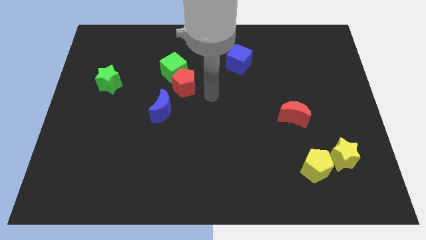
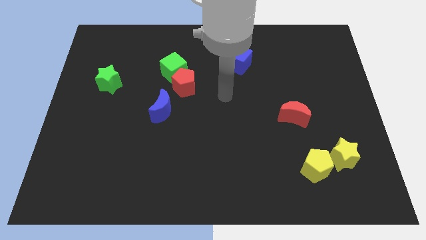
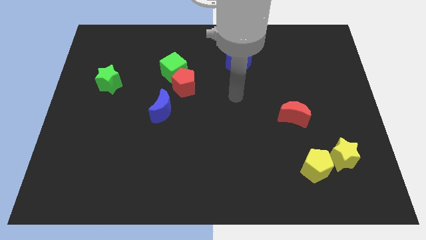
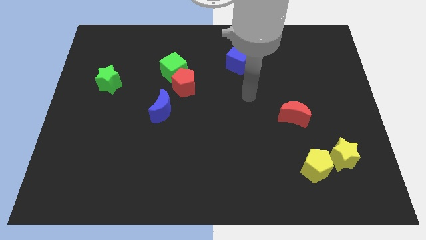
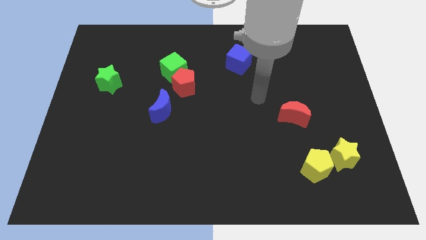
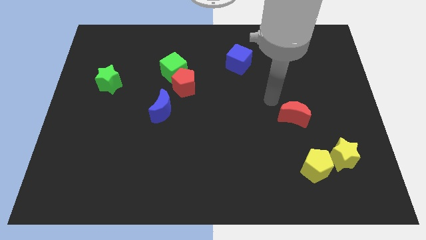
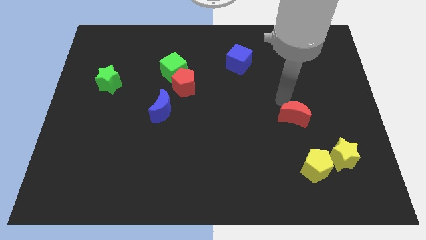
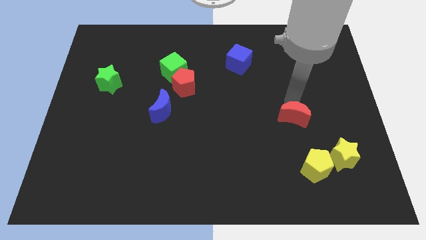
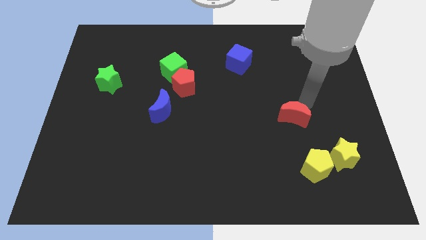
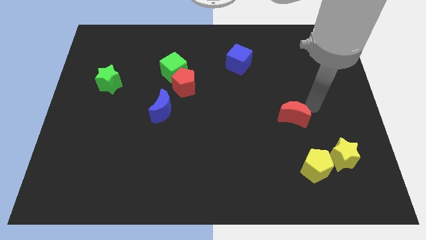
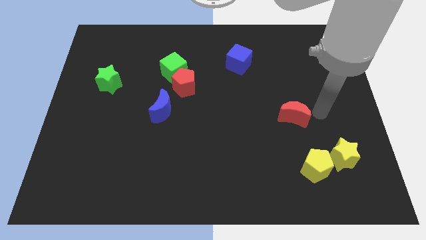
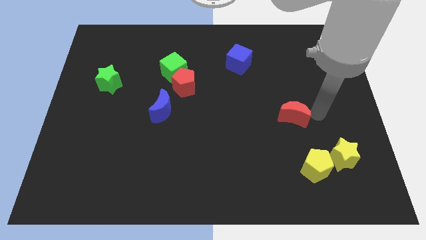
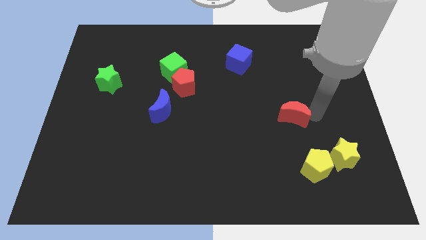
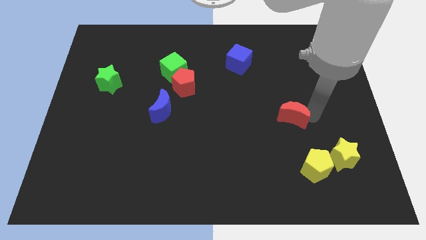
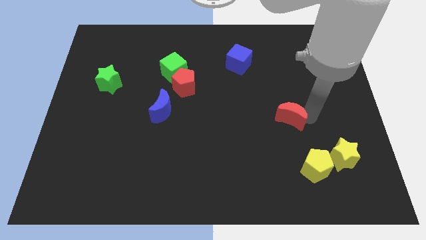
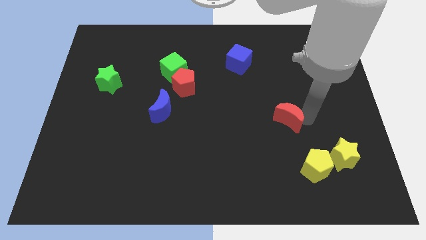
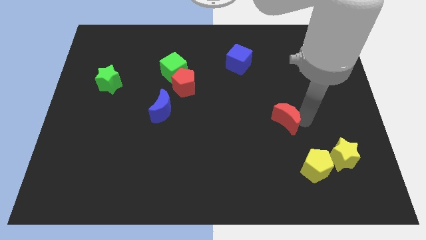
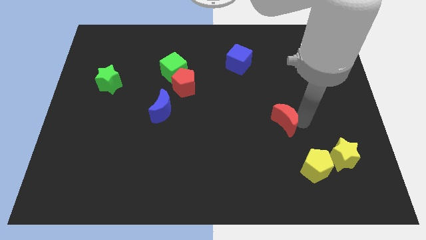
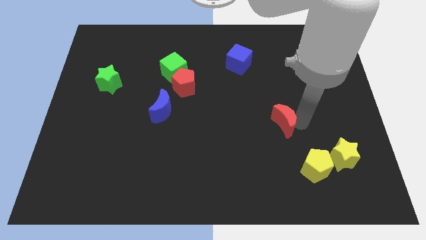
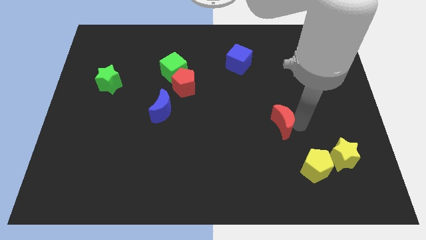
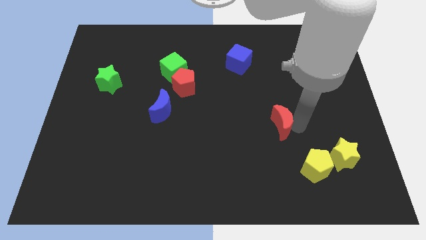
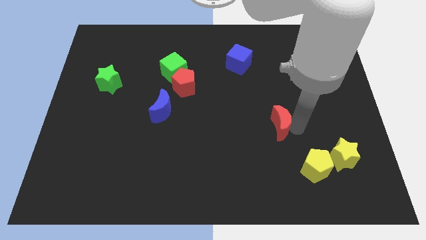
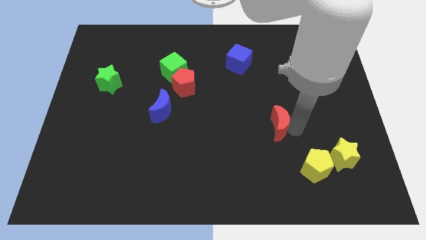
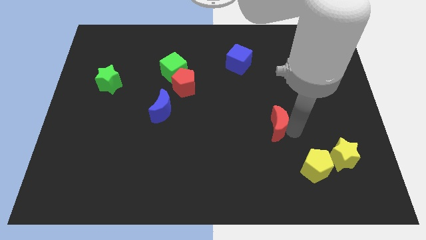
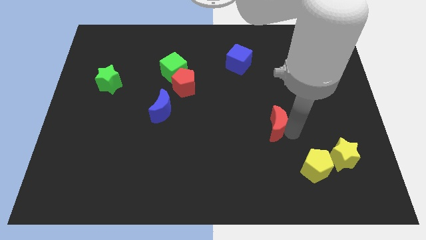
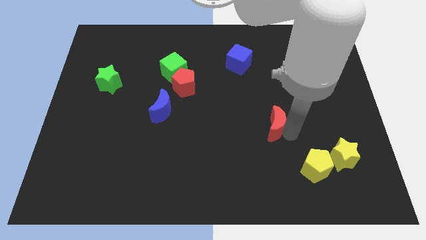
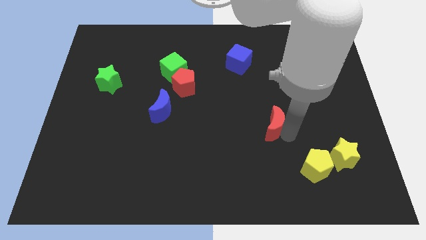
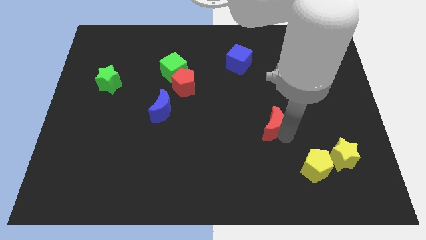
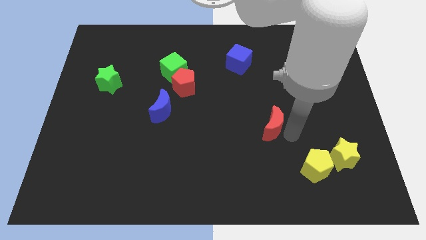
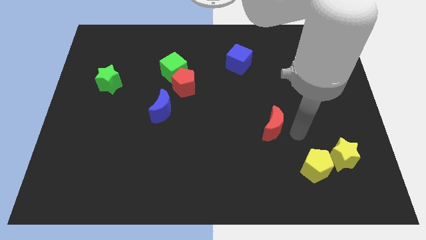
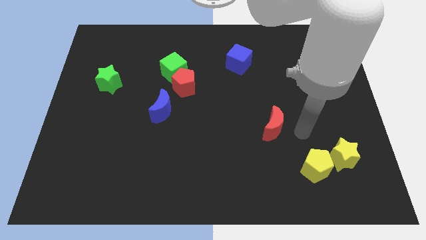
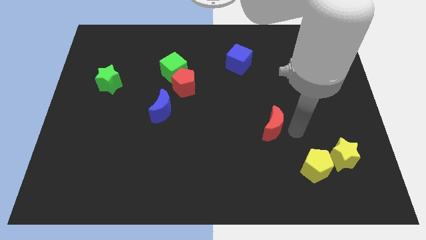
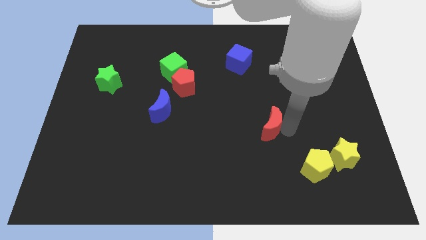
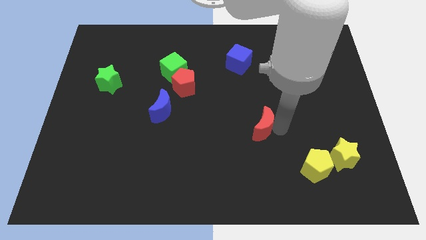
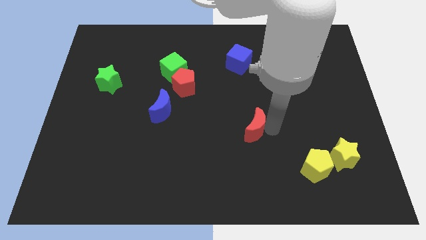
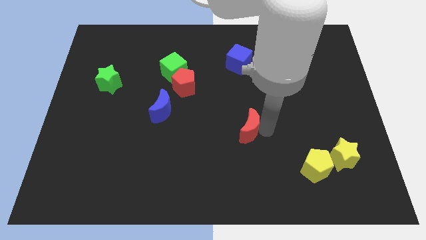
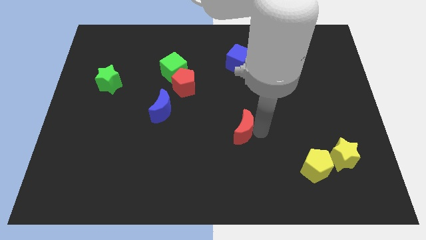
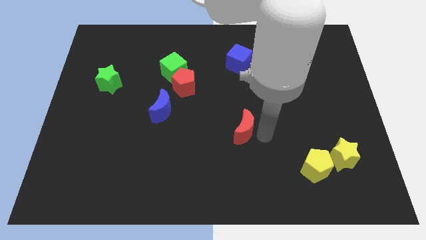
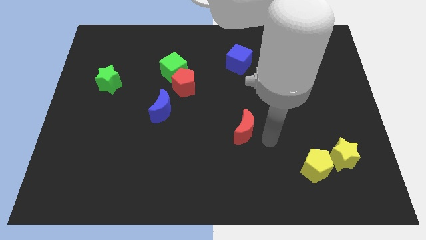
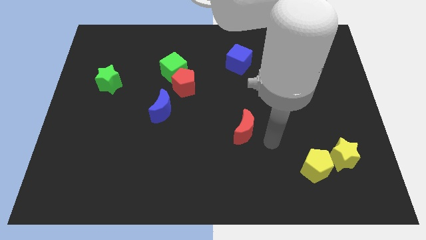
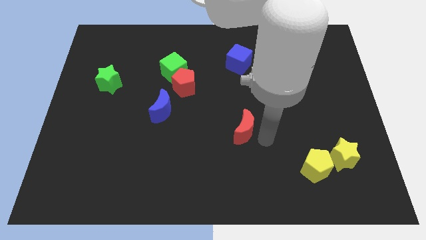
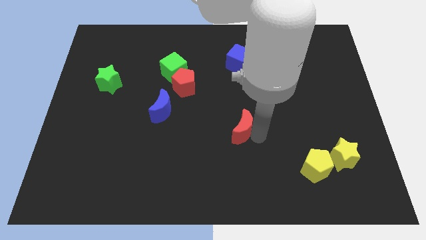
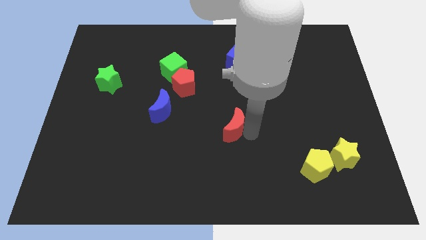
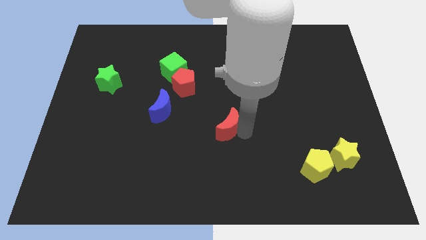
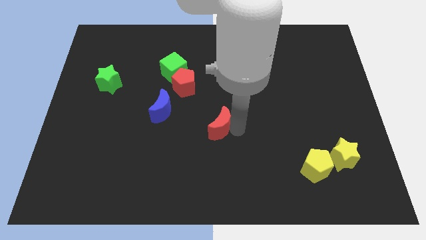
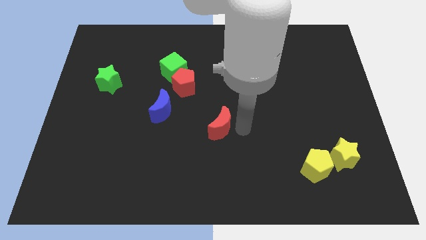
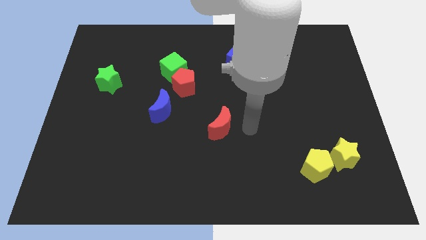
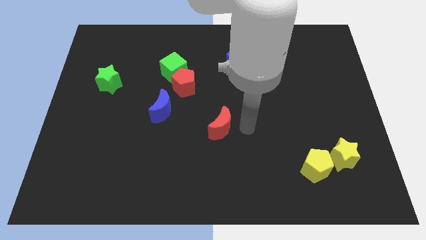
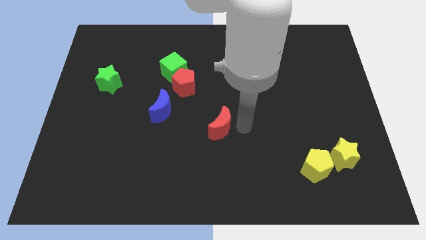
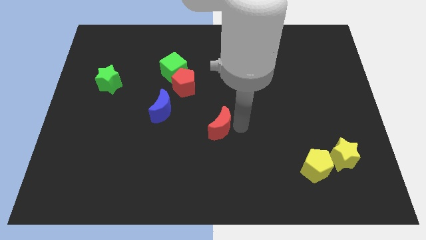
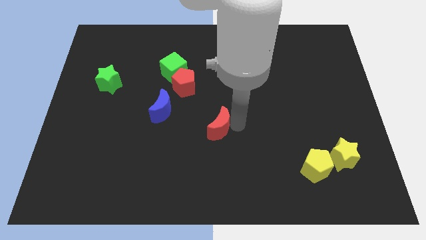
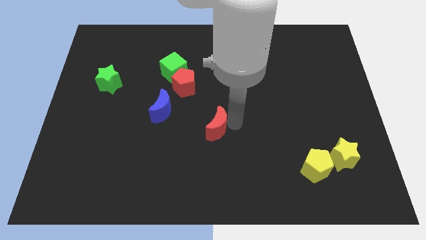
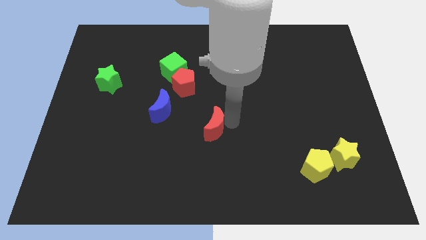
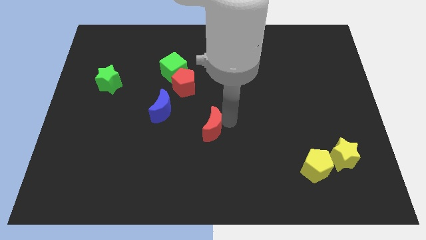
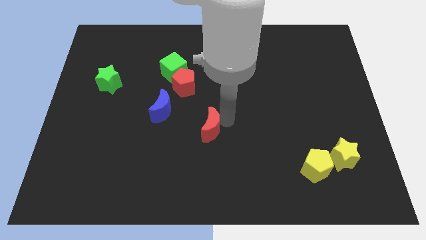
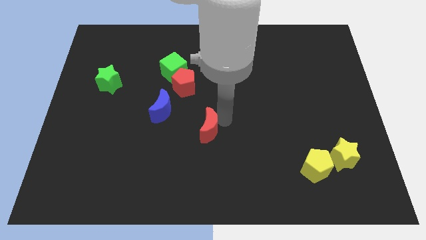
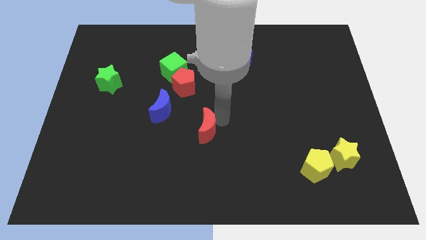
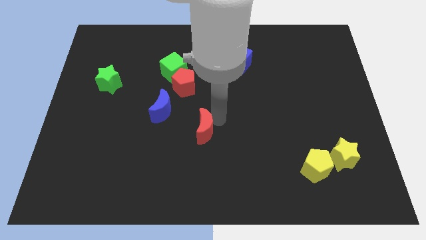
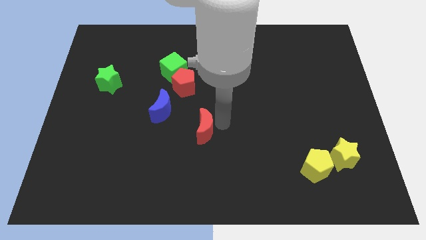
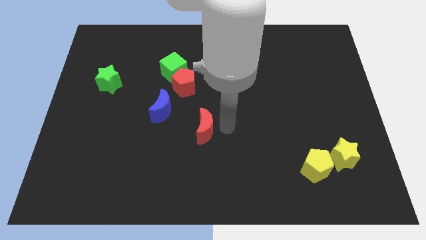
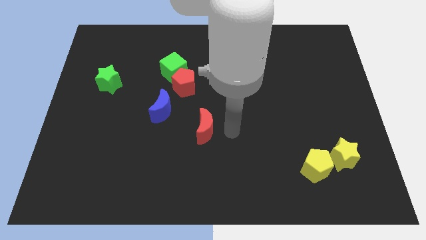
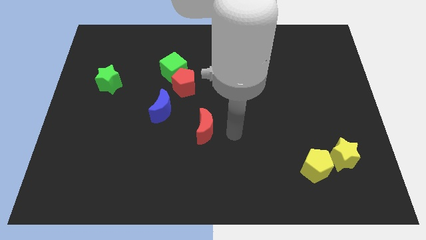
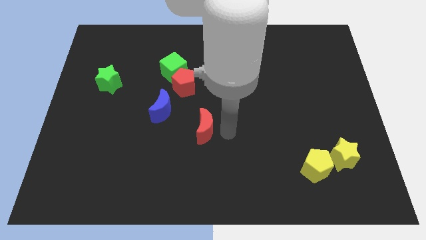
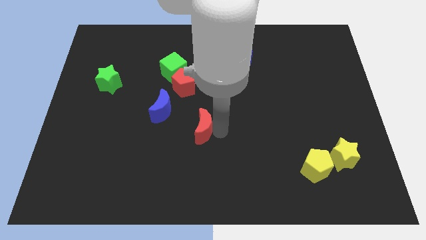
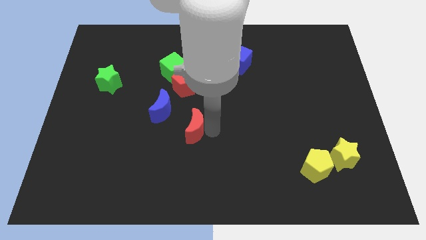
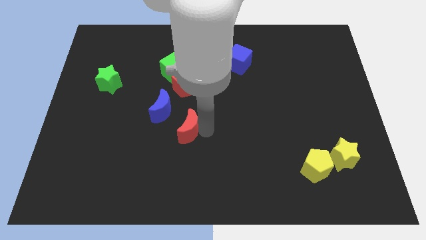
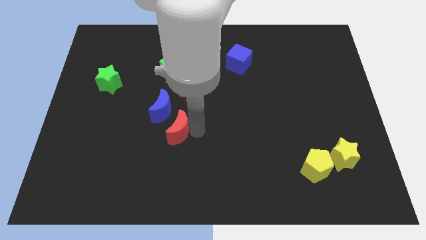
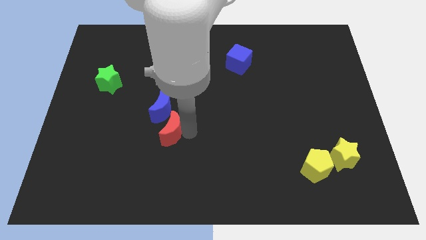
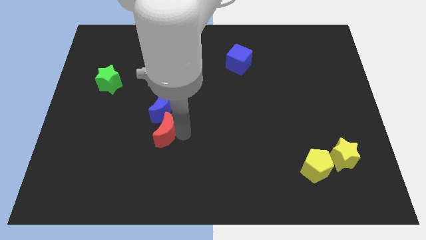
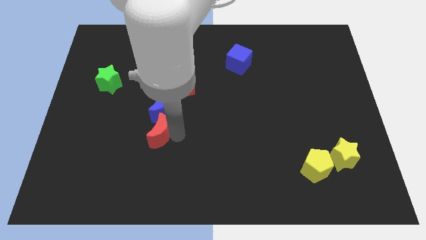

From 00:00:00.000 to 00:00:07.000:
slide the red moon diagonally down and to the left of the blue moon

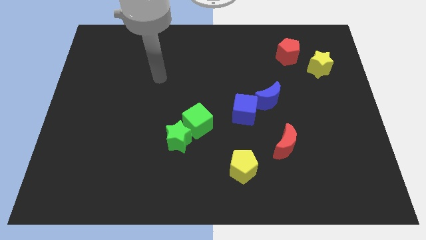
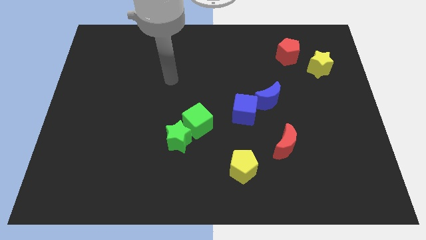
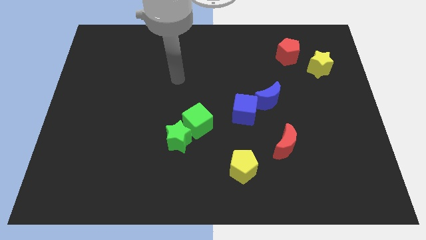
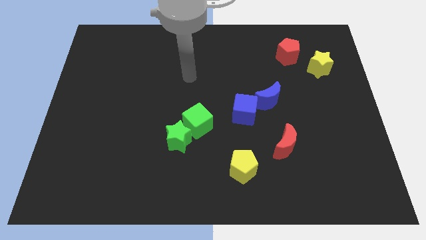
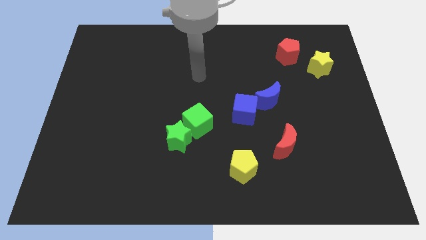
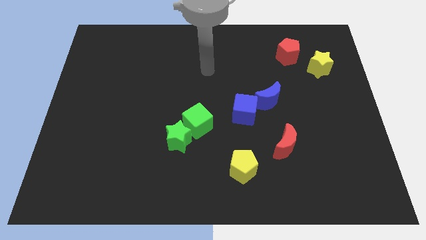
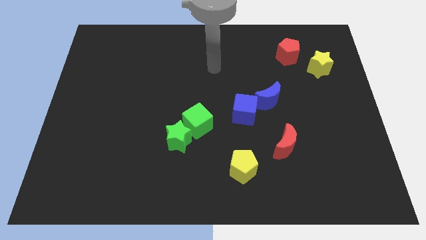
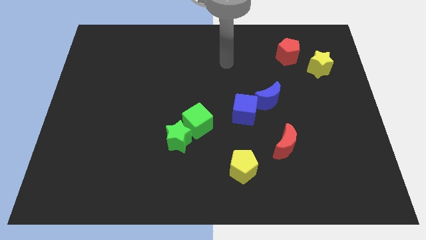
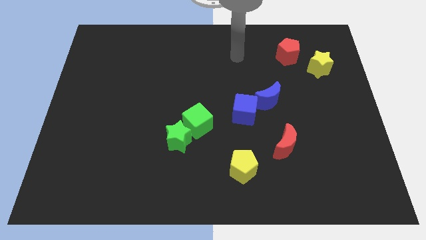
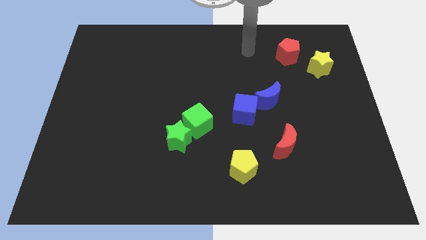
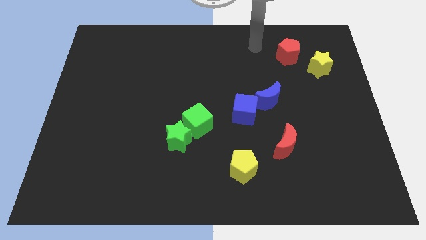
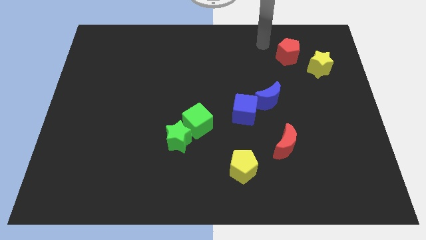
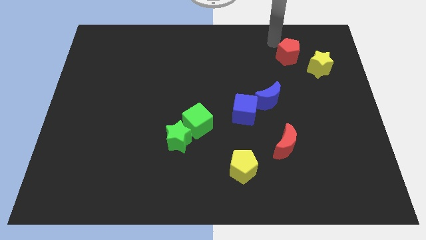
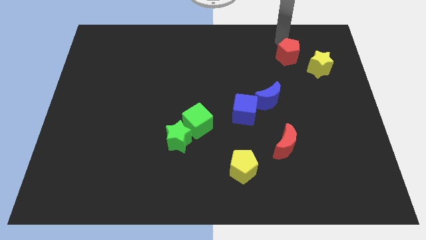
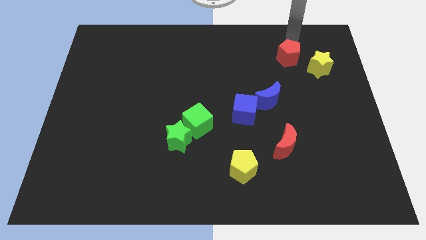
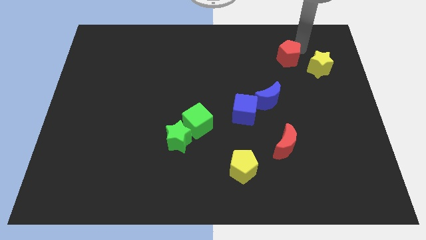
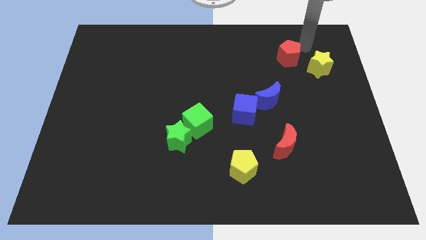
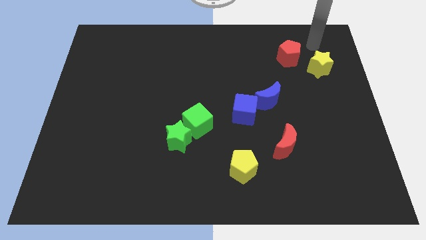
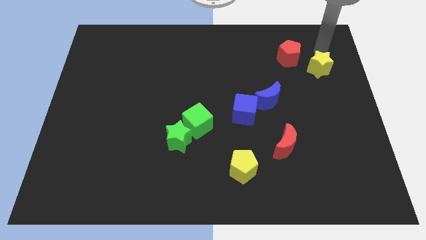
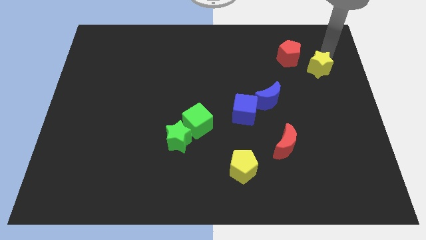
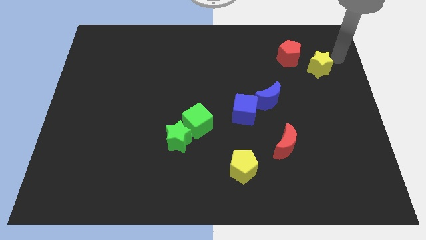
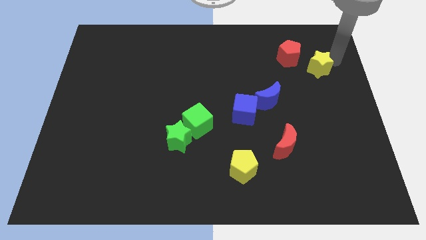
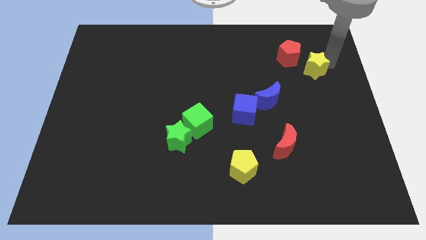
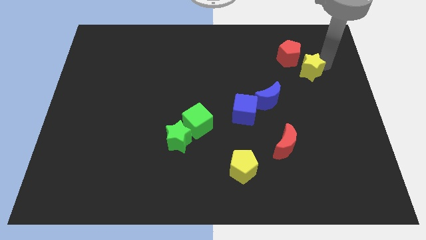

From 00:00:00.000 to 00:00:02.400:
move the yellow star below the red pentagon
